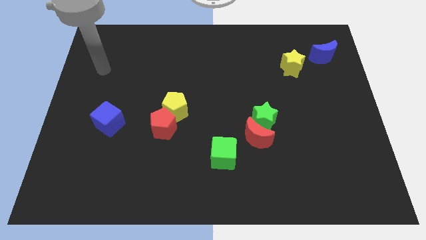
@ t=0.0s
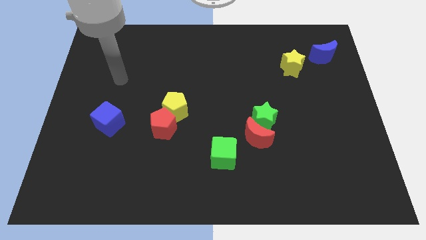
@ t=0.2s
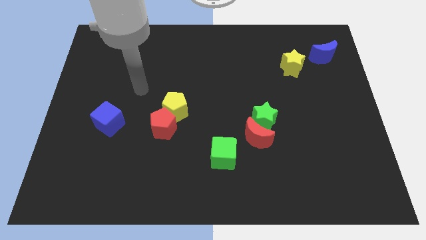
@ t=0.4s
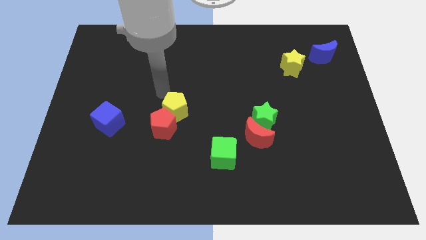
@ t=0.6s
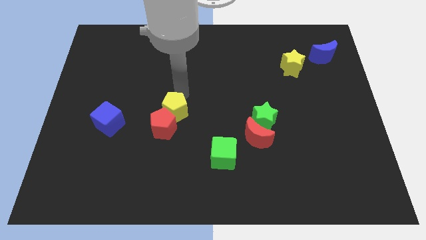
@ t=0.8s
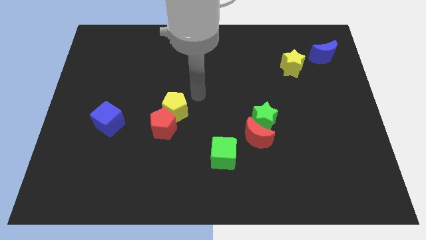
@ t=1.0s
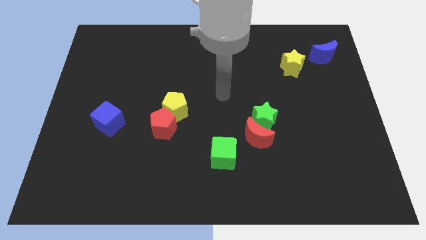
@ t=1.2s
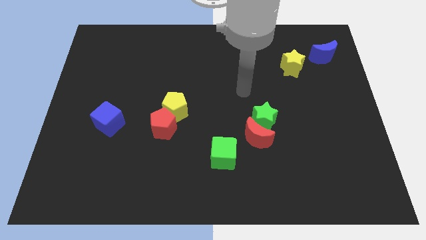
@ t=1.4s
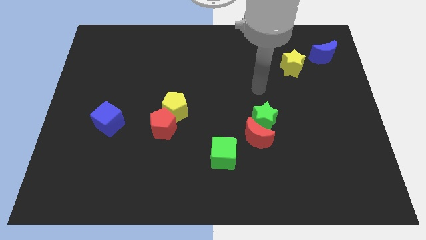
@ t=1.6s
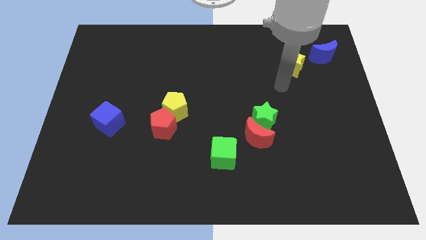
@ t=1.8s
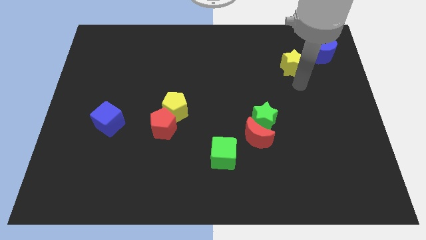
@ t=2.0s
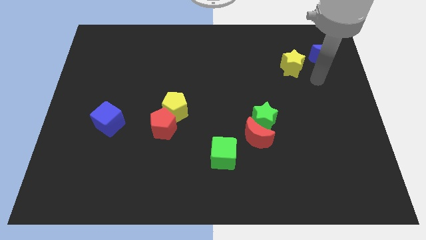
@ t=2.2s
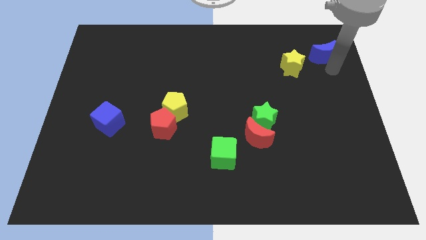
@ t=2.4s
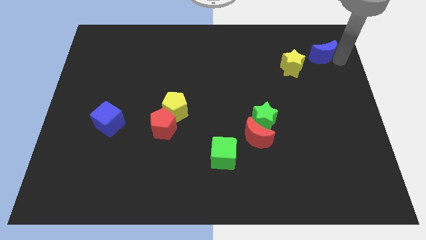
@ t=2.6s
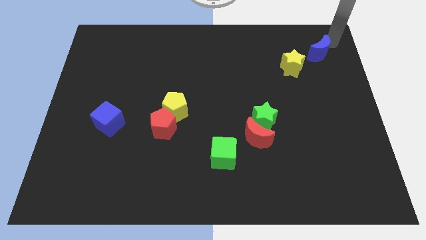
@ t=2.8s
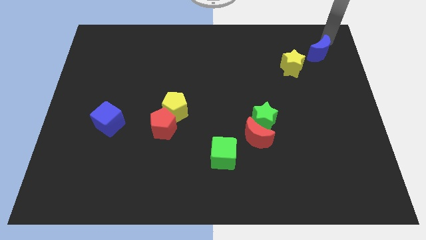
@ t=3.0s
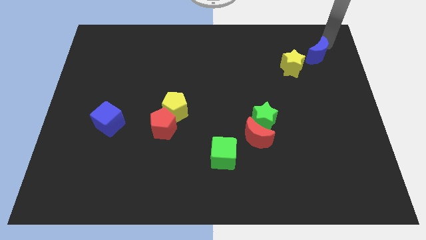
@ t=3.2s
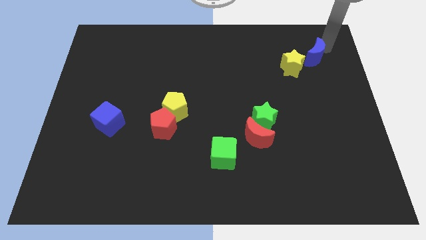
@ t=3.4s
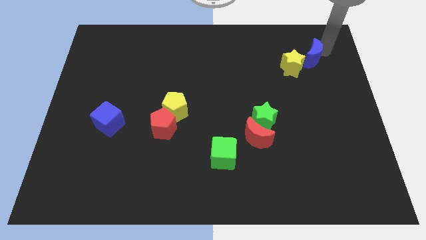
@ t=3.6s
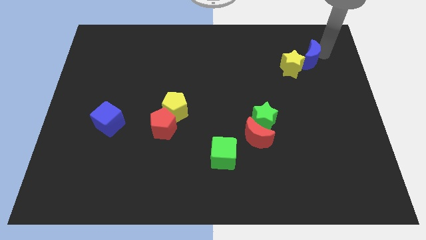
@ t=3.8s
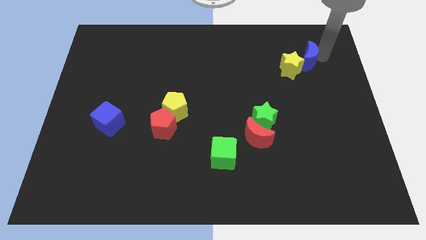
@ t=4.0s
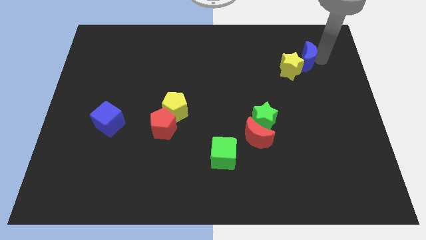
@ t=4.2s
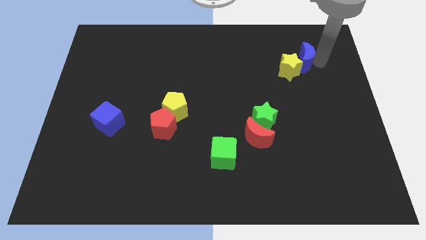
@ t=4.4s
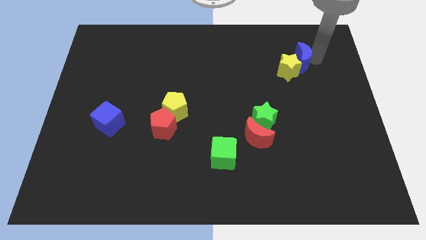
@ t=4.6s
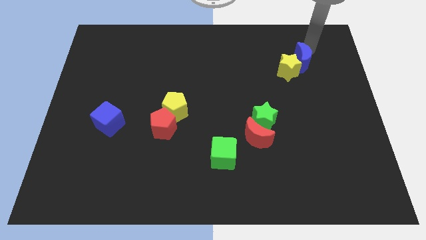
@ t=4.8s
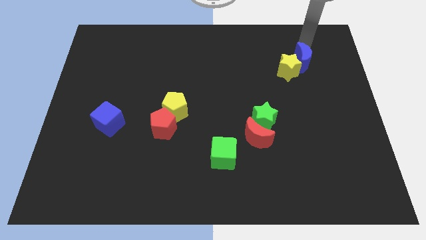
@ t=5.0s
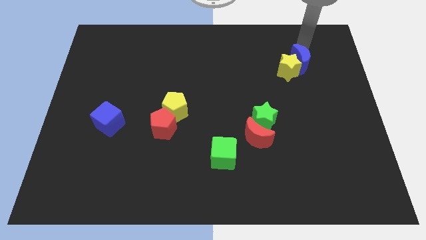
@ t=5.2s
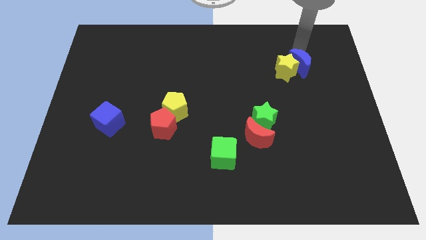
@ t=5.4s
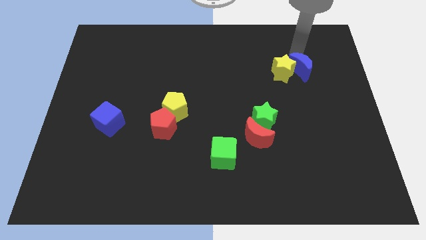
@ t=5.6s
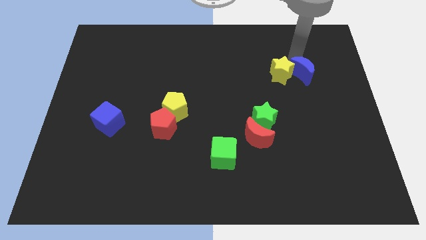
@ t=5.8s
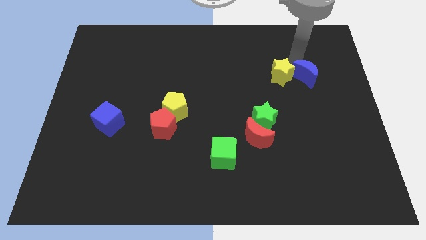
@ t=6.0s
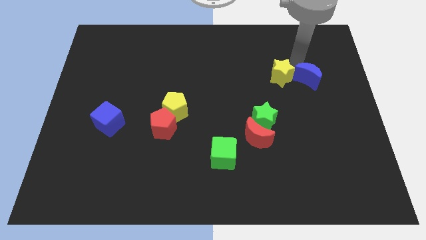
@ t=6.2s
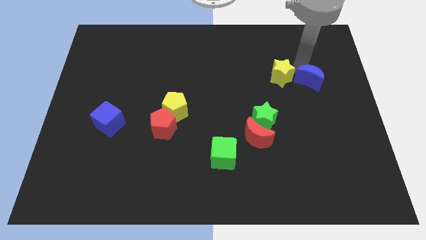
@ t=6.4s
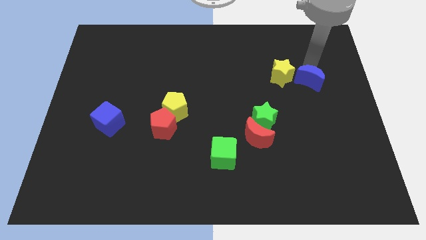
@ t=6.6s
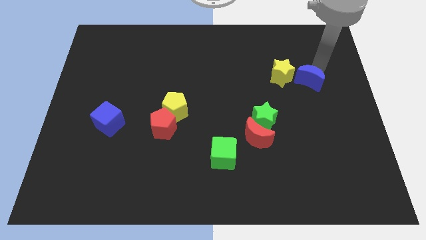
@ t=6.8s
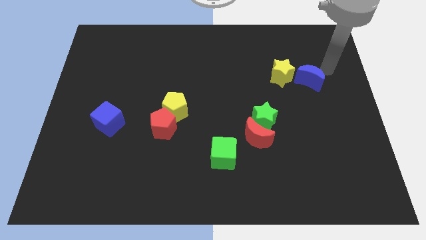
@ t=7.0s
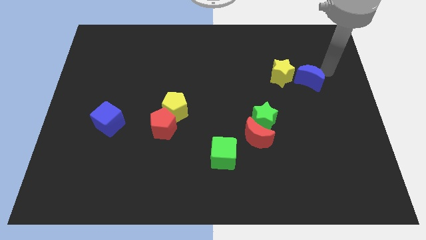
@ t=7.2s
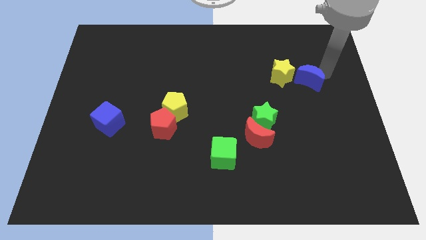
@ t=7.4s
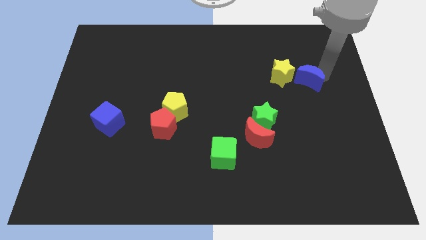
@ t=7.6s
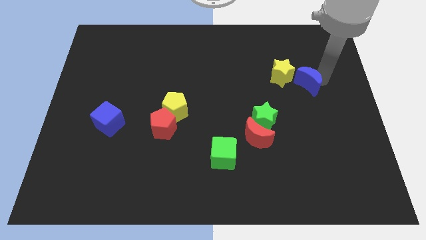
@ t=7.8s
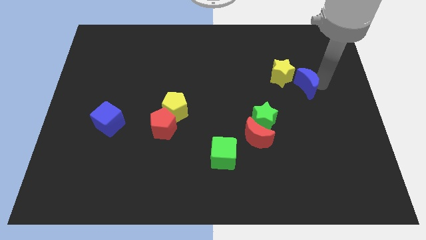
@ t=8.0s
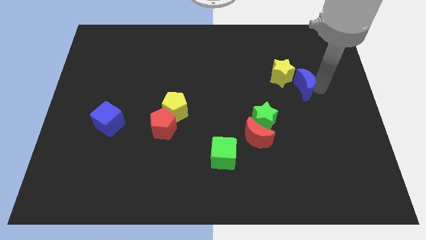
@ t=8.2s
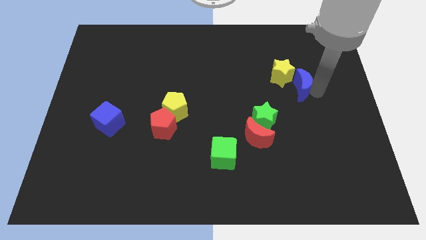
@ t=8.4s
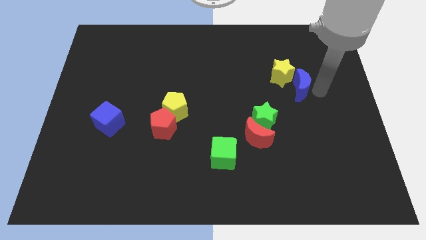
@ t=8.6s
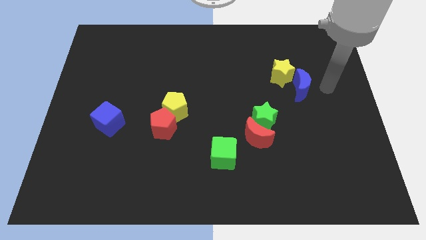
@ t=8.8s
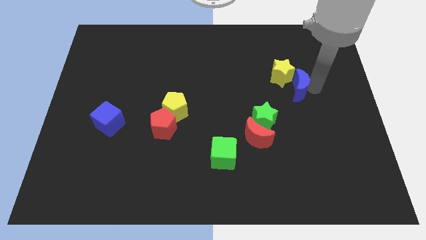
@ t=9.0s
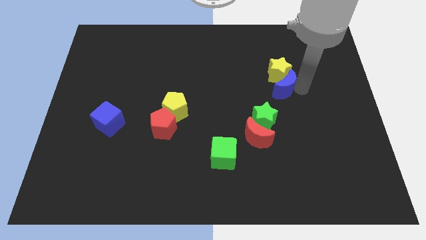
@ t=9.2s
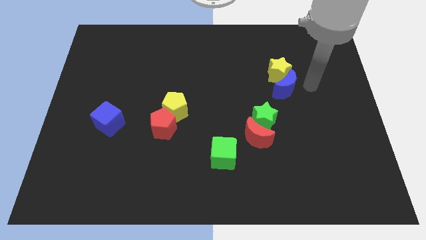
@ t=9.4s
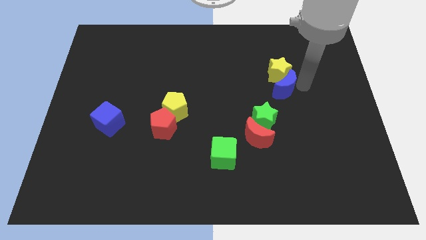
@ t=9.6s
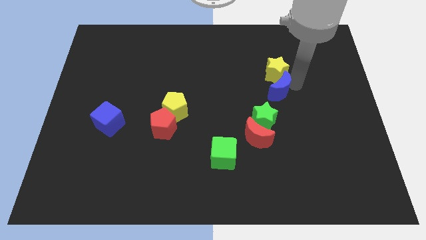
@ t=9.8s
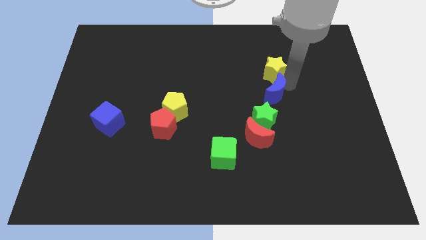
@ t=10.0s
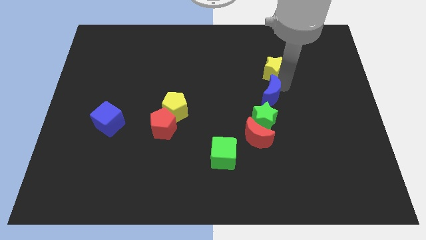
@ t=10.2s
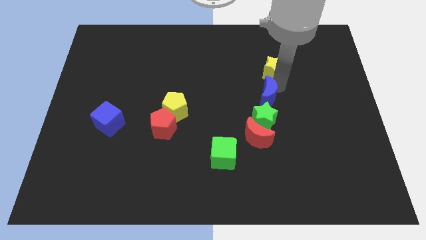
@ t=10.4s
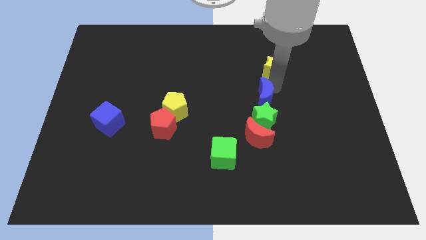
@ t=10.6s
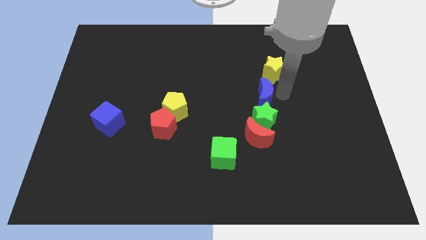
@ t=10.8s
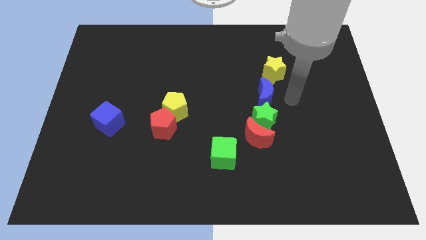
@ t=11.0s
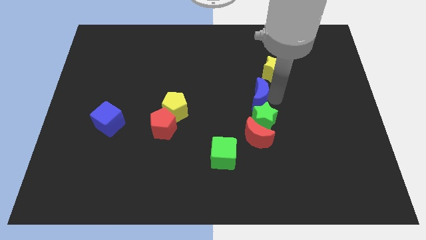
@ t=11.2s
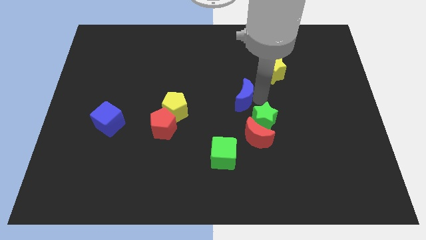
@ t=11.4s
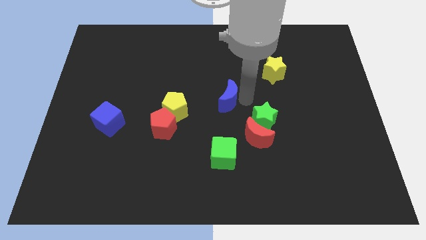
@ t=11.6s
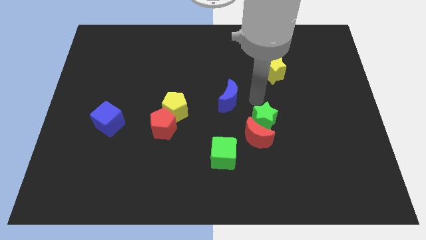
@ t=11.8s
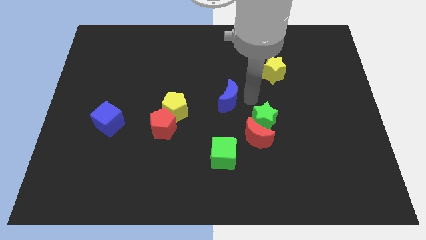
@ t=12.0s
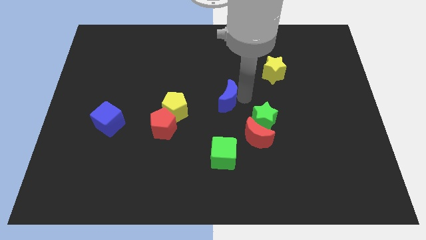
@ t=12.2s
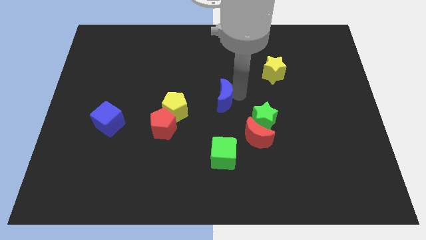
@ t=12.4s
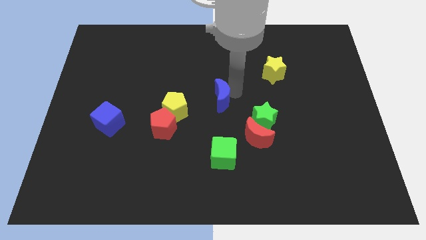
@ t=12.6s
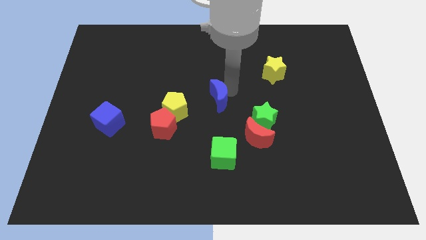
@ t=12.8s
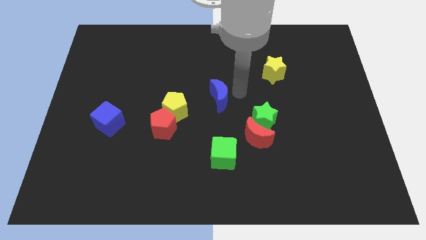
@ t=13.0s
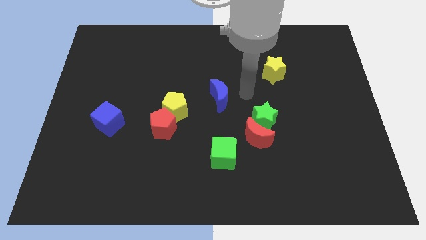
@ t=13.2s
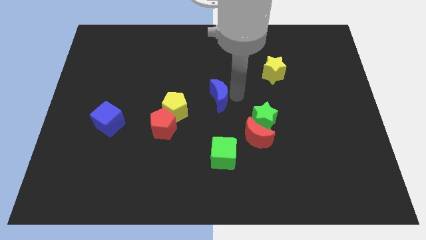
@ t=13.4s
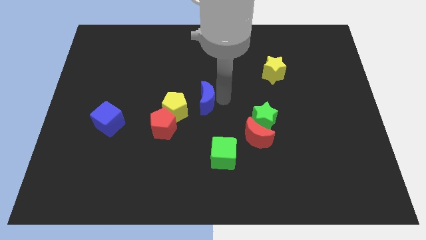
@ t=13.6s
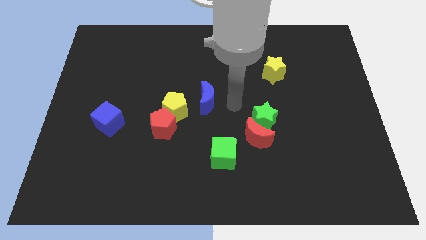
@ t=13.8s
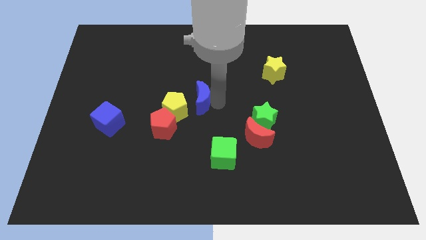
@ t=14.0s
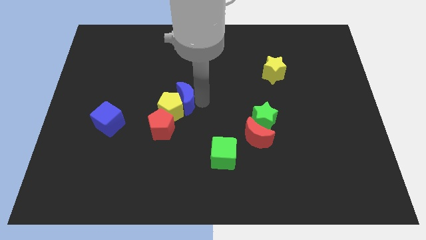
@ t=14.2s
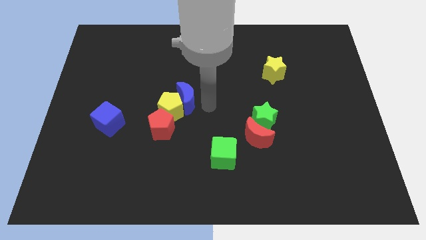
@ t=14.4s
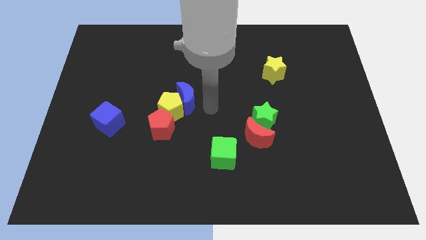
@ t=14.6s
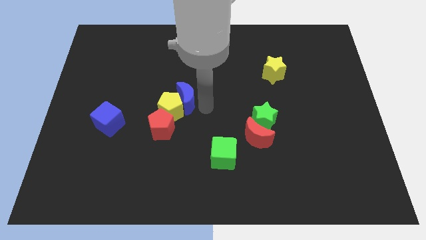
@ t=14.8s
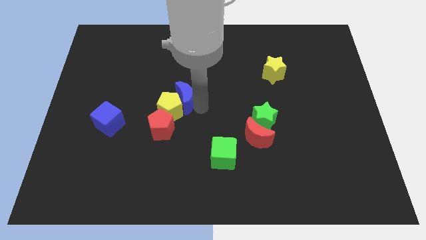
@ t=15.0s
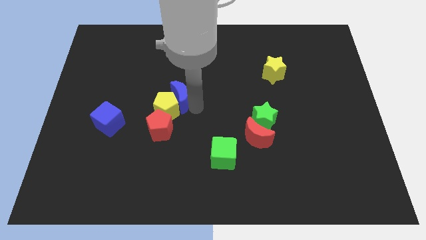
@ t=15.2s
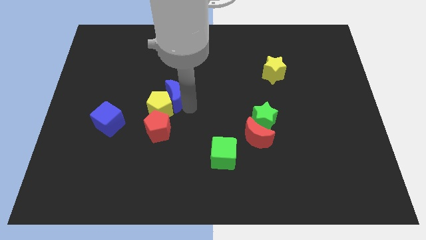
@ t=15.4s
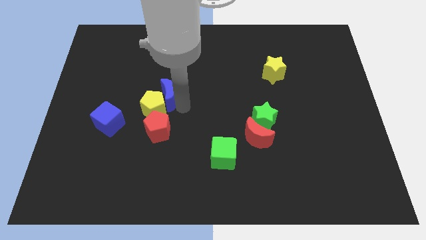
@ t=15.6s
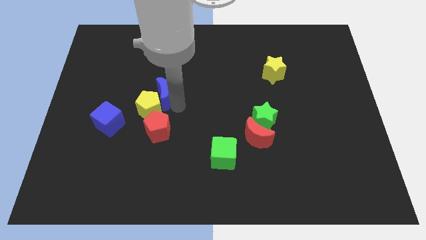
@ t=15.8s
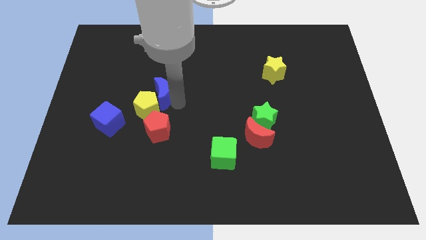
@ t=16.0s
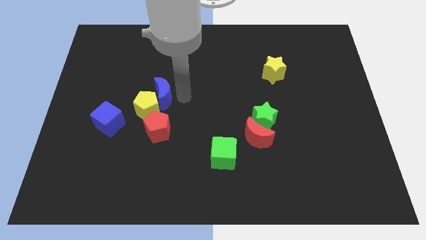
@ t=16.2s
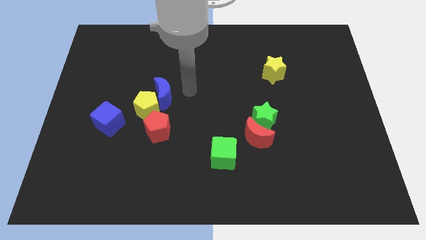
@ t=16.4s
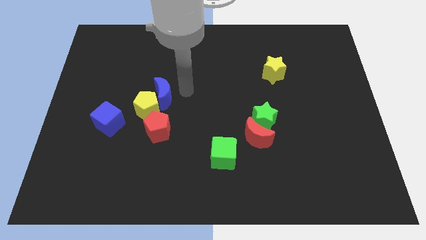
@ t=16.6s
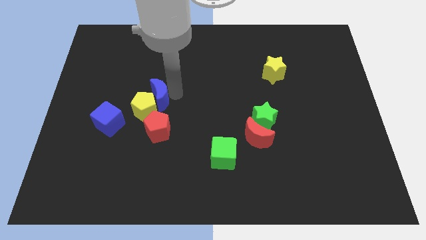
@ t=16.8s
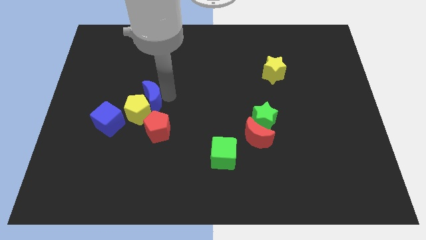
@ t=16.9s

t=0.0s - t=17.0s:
move the blue moon to the top right of the blue cube
